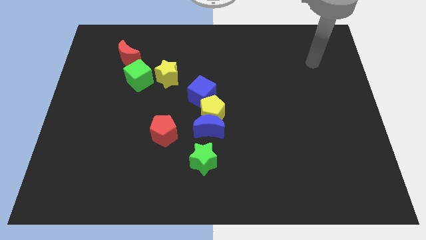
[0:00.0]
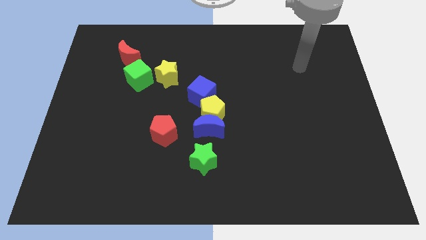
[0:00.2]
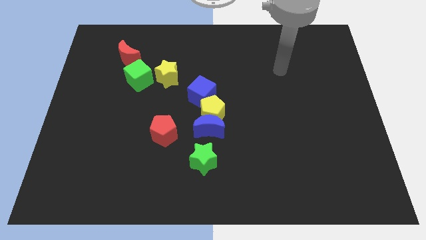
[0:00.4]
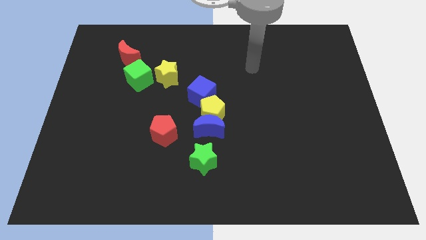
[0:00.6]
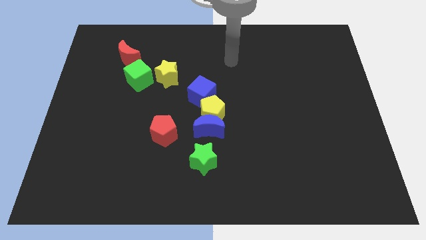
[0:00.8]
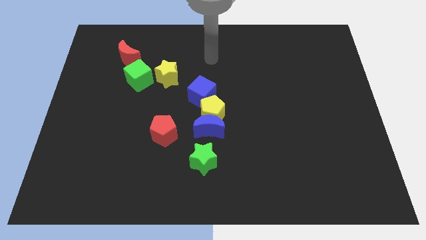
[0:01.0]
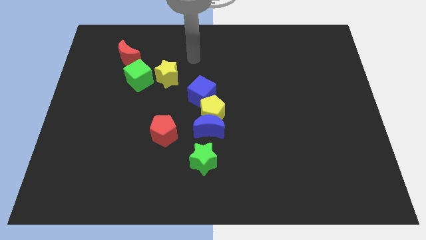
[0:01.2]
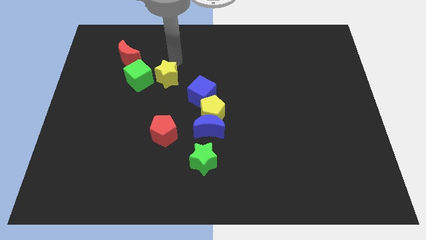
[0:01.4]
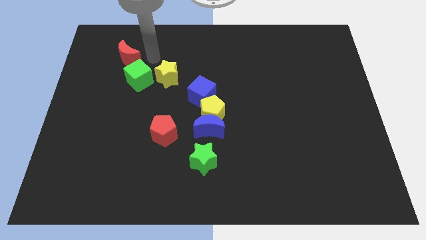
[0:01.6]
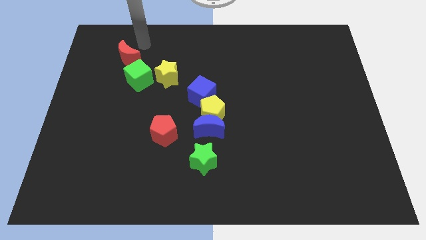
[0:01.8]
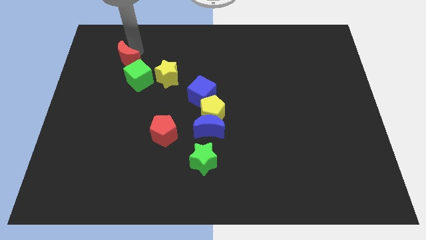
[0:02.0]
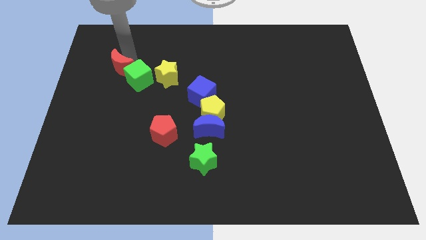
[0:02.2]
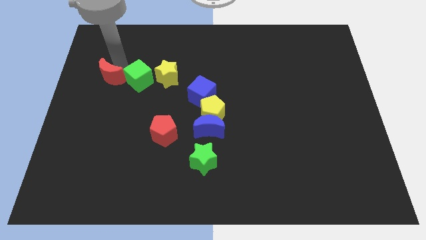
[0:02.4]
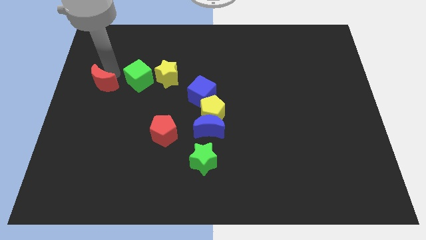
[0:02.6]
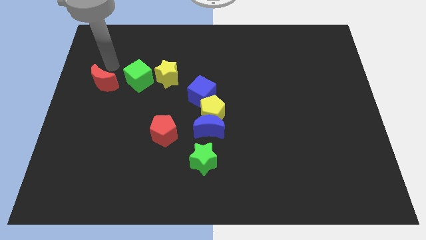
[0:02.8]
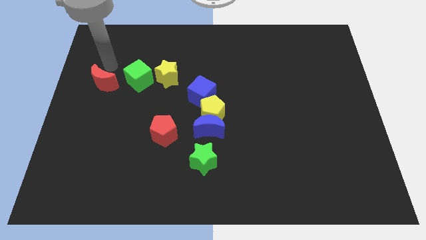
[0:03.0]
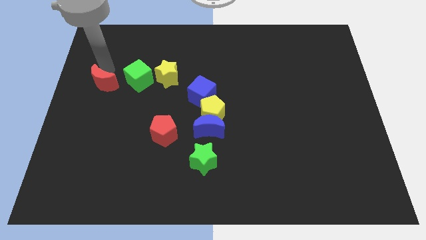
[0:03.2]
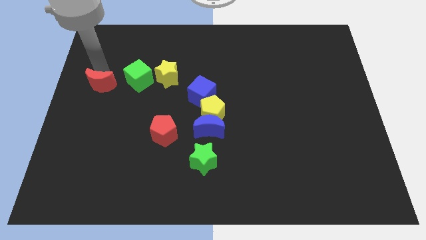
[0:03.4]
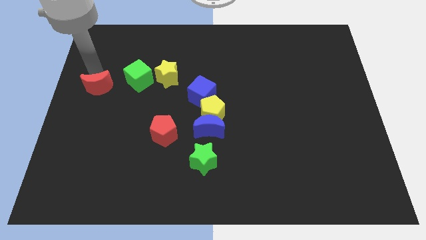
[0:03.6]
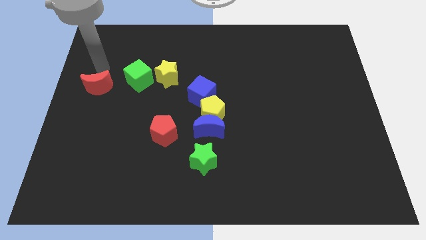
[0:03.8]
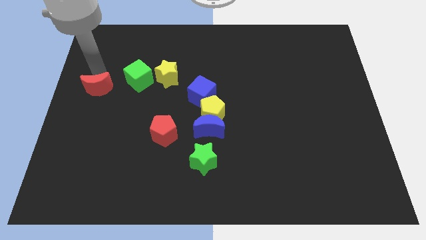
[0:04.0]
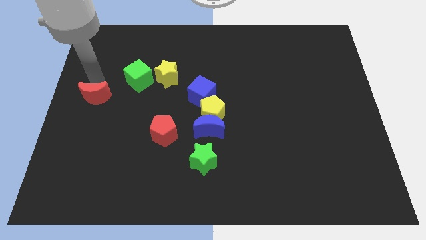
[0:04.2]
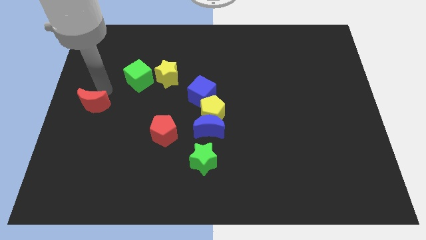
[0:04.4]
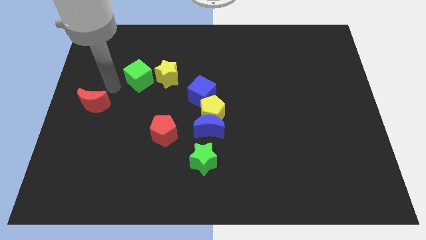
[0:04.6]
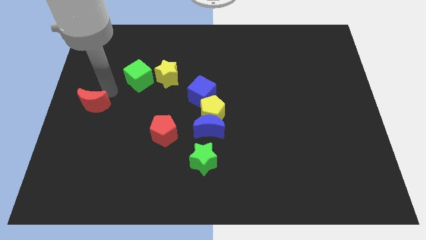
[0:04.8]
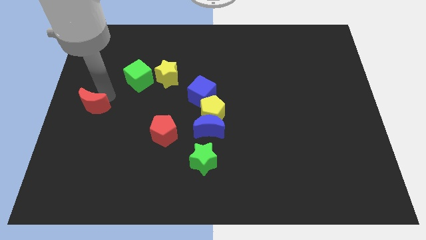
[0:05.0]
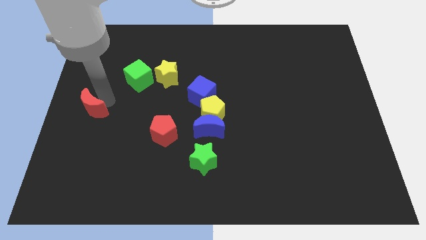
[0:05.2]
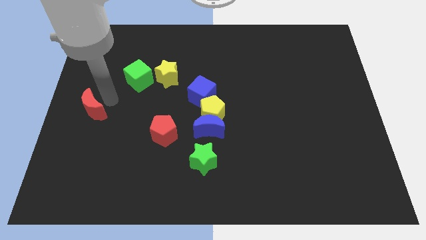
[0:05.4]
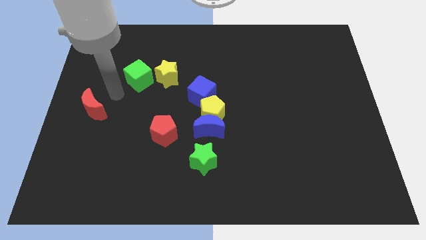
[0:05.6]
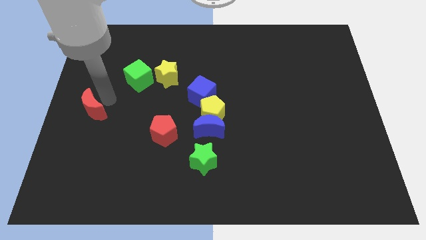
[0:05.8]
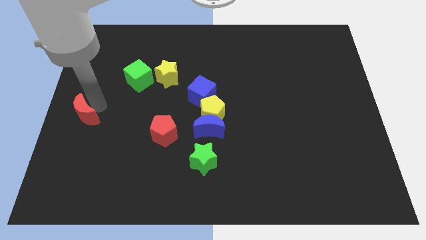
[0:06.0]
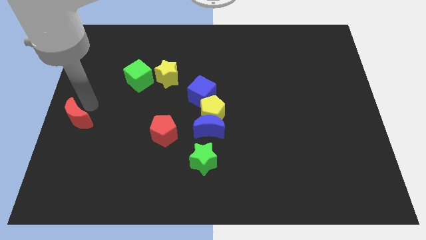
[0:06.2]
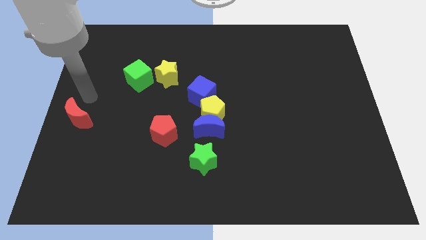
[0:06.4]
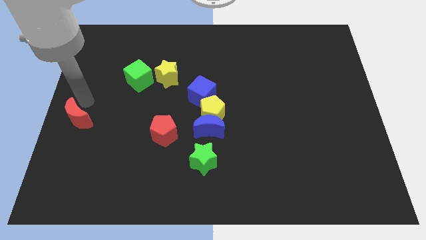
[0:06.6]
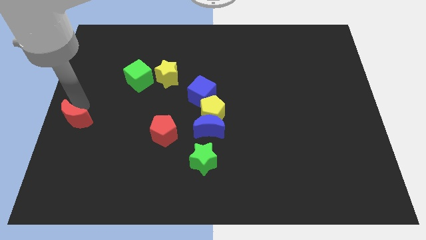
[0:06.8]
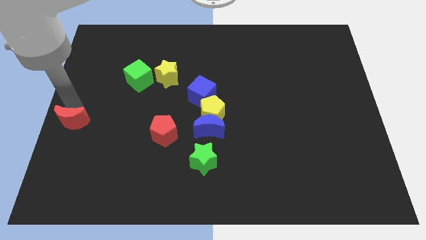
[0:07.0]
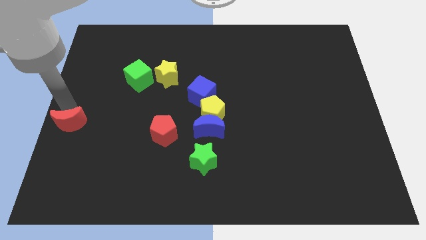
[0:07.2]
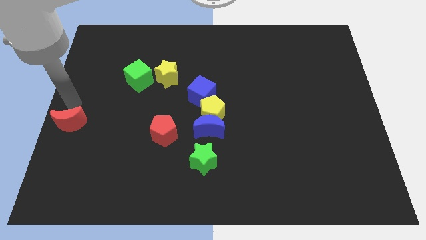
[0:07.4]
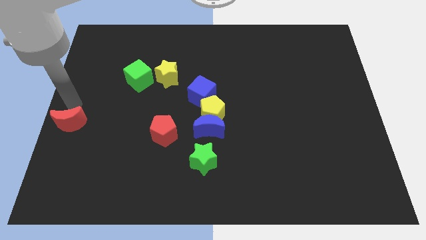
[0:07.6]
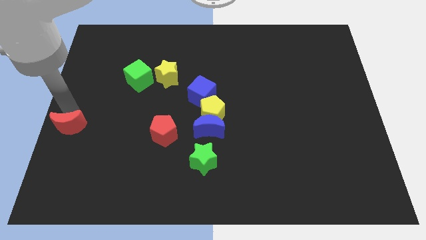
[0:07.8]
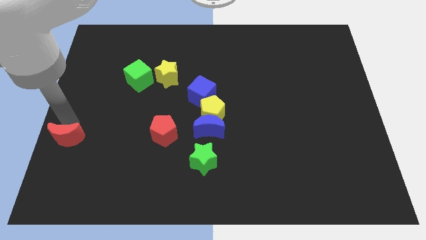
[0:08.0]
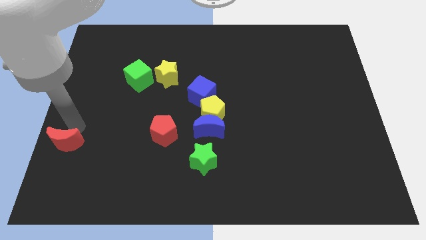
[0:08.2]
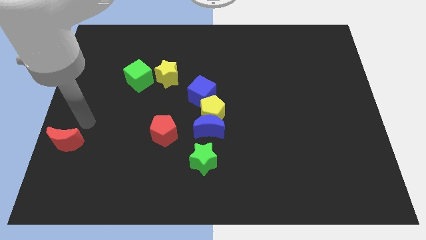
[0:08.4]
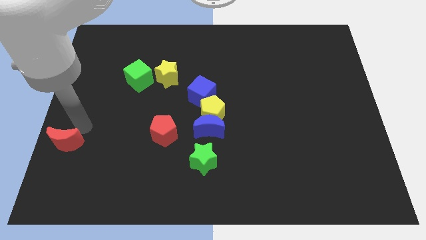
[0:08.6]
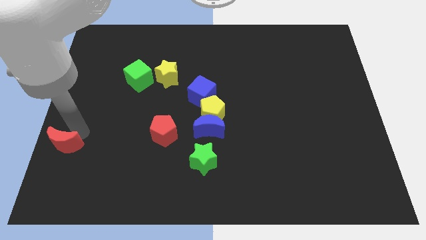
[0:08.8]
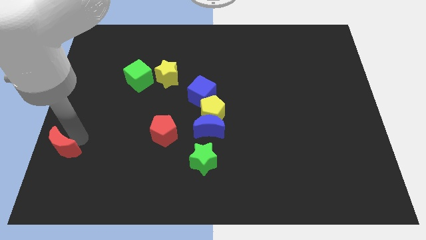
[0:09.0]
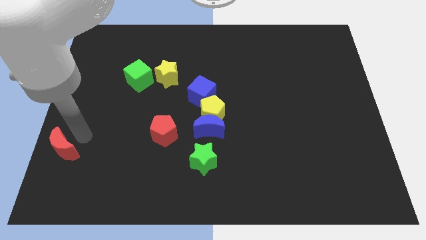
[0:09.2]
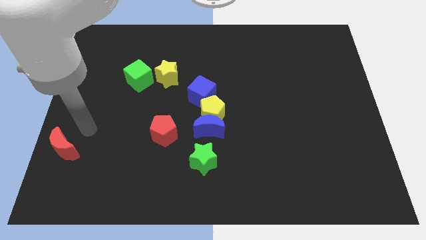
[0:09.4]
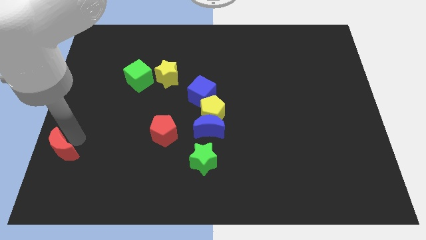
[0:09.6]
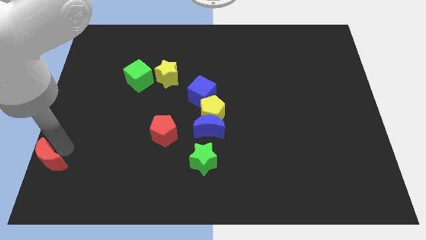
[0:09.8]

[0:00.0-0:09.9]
push the red moon to the bottom left

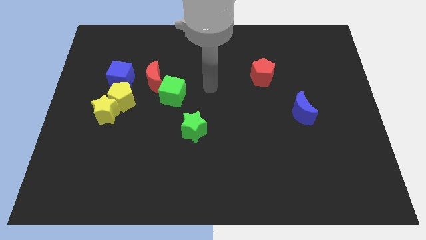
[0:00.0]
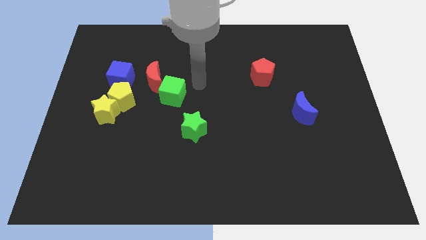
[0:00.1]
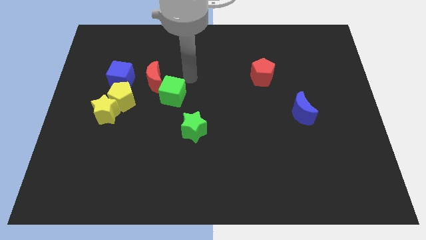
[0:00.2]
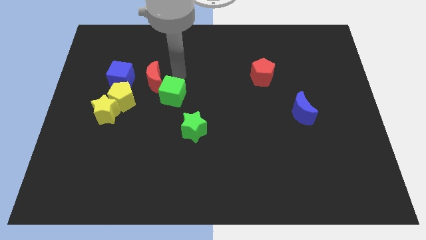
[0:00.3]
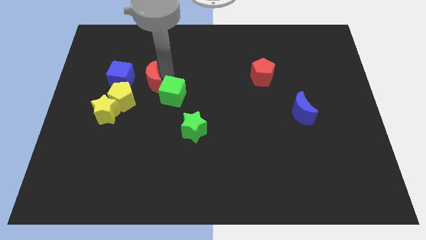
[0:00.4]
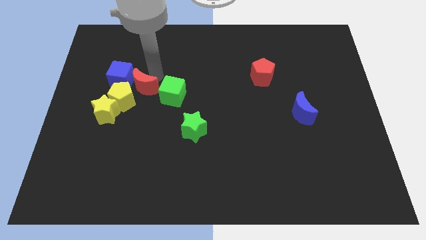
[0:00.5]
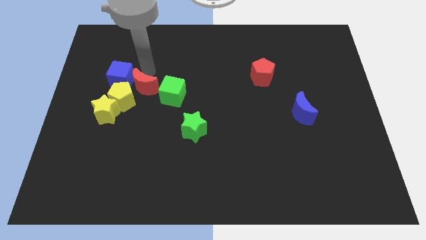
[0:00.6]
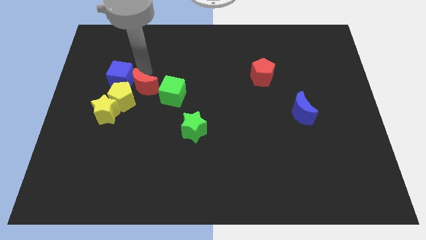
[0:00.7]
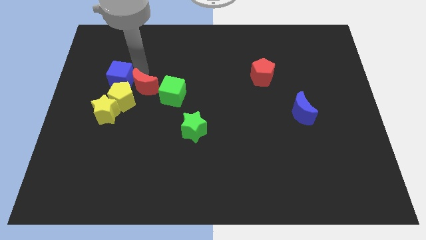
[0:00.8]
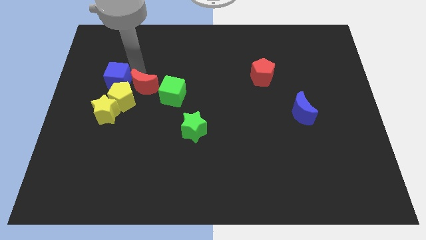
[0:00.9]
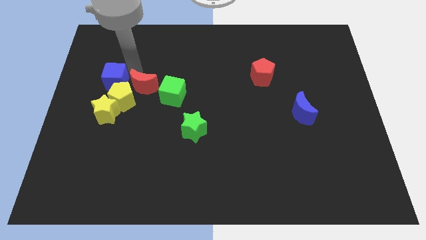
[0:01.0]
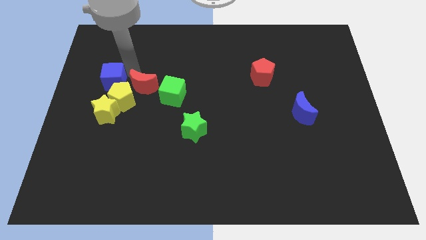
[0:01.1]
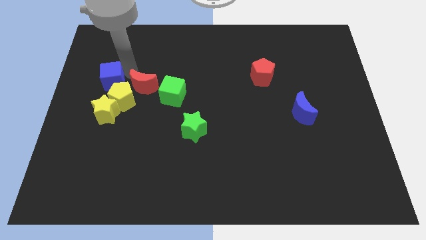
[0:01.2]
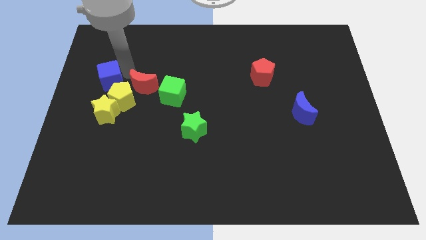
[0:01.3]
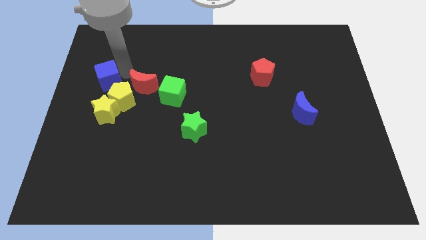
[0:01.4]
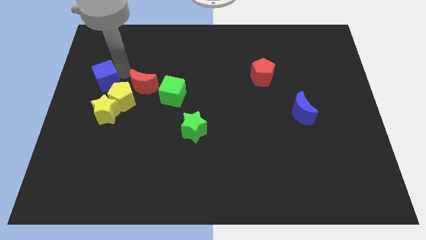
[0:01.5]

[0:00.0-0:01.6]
push the blue cube to the center left
